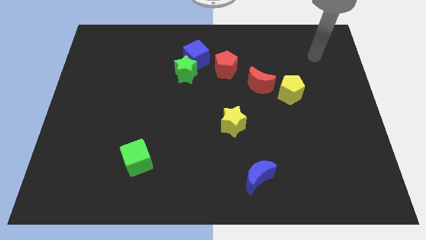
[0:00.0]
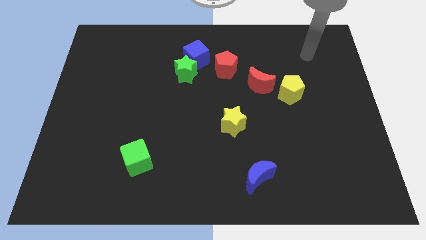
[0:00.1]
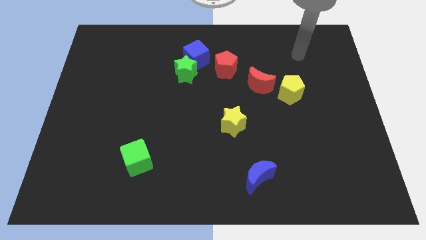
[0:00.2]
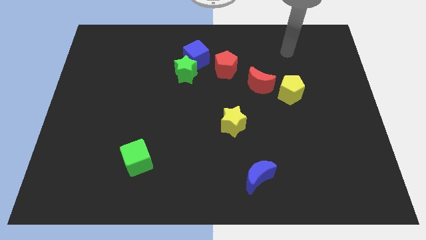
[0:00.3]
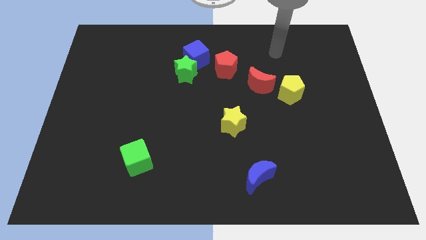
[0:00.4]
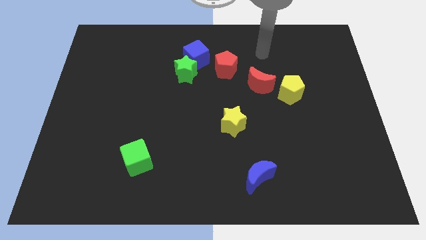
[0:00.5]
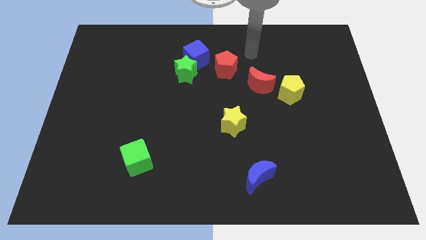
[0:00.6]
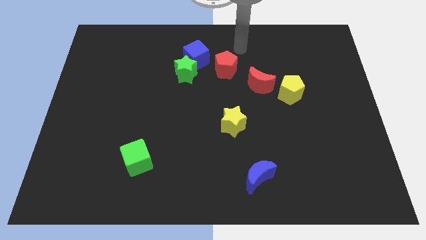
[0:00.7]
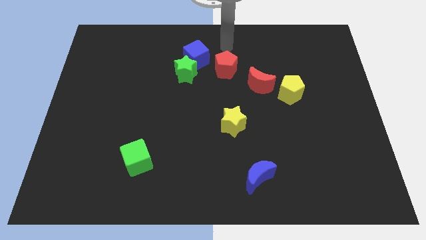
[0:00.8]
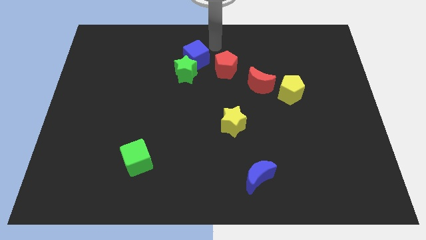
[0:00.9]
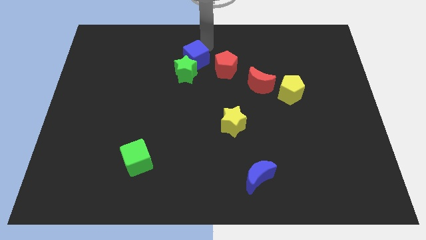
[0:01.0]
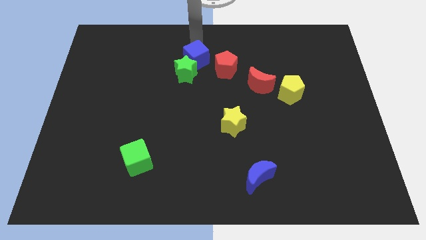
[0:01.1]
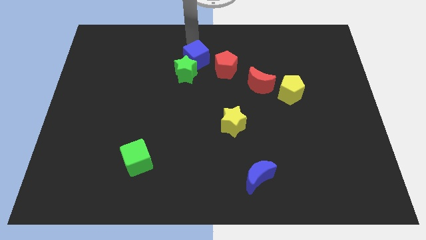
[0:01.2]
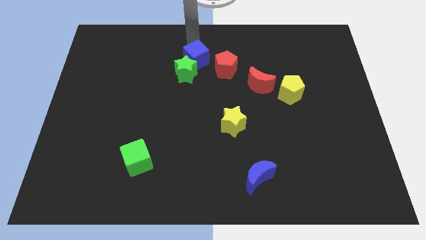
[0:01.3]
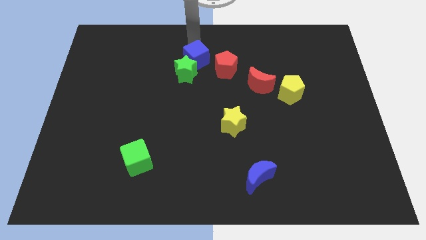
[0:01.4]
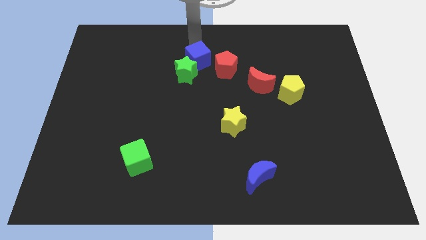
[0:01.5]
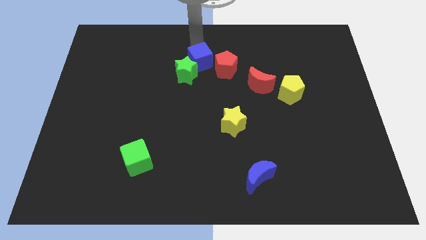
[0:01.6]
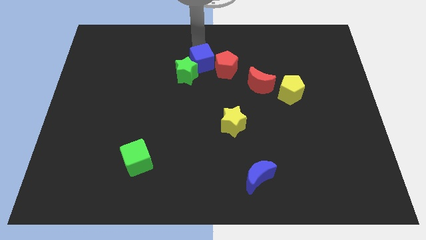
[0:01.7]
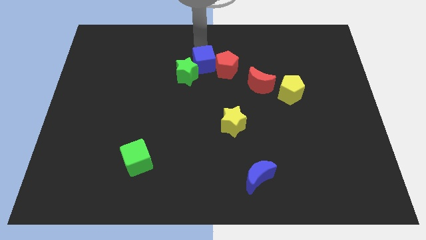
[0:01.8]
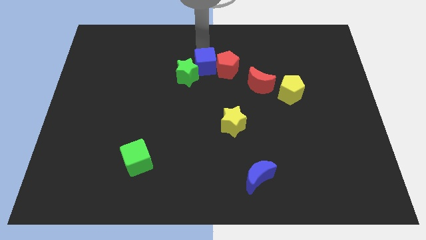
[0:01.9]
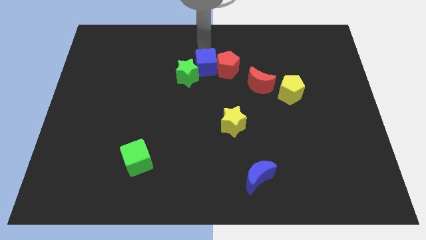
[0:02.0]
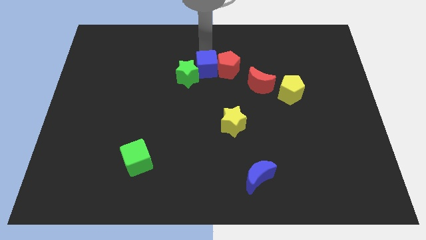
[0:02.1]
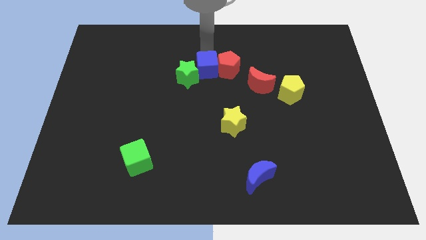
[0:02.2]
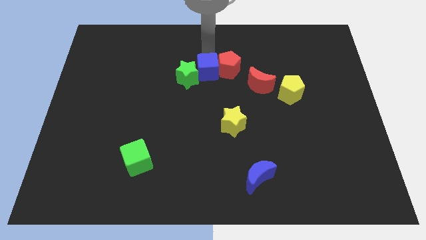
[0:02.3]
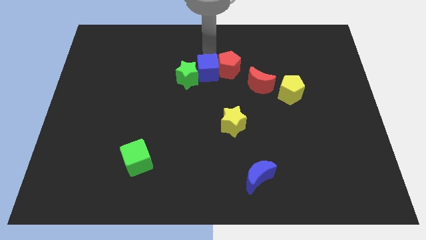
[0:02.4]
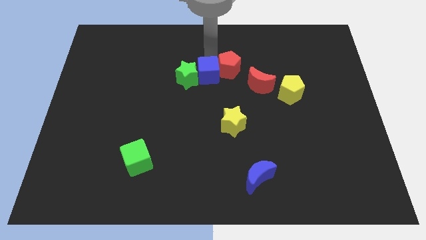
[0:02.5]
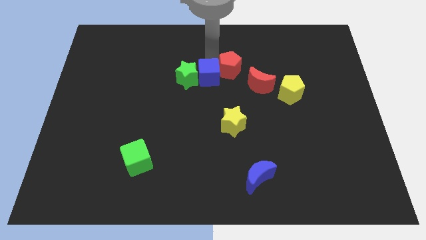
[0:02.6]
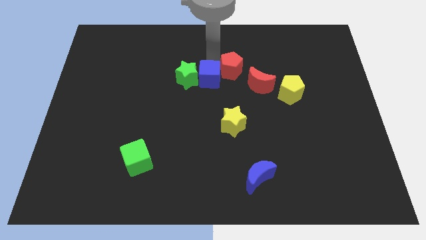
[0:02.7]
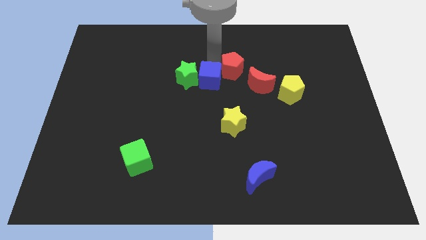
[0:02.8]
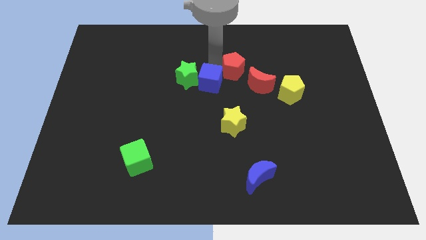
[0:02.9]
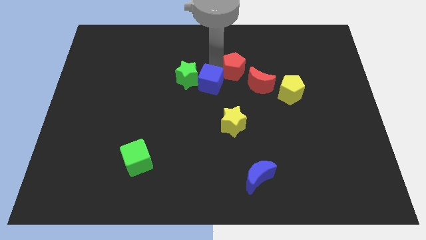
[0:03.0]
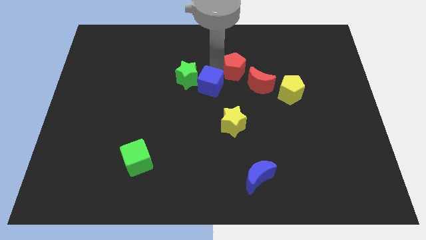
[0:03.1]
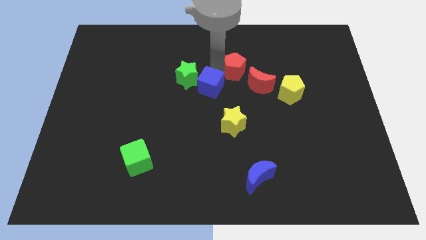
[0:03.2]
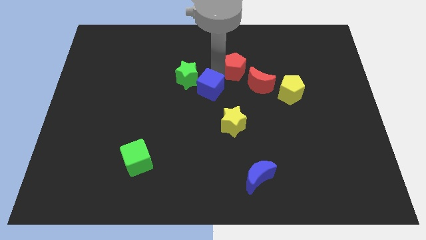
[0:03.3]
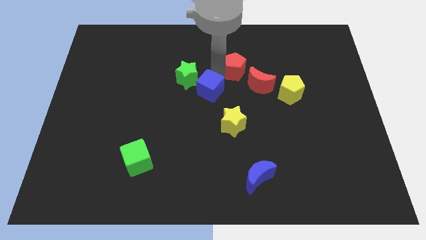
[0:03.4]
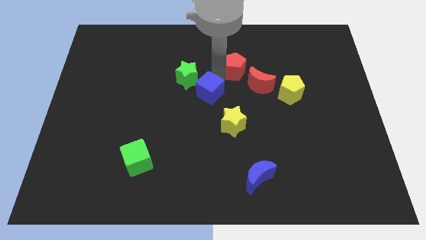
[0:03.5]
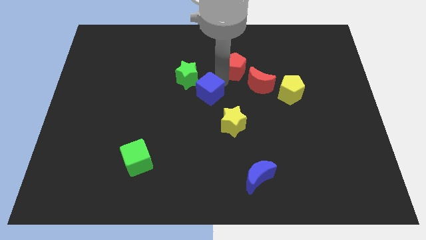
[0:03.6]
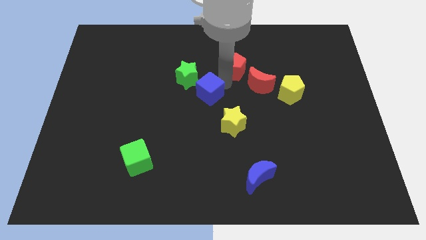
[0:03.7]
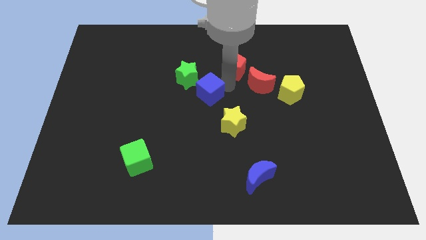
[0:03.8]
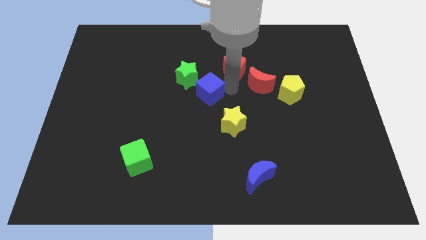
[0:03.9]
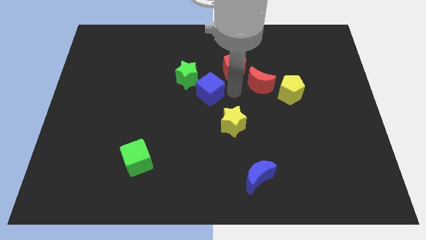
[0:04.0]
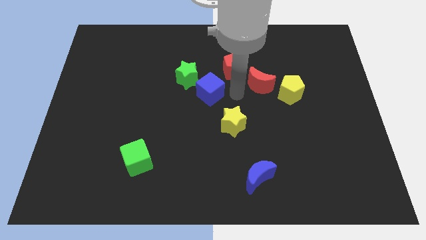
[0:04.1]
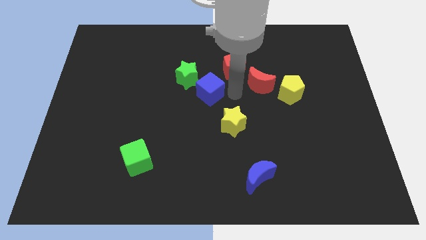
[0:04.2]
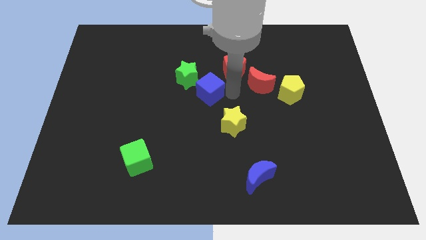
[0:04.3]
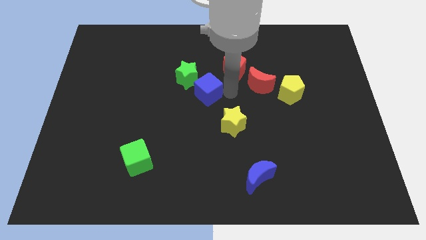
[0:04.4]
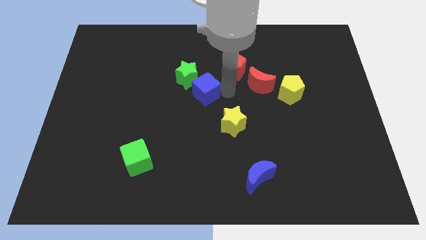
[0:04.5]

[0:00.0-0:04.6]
put the blue cube below the green star

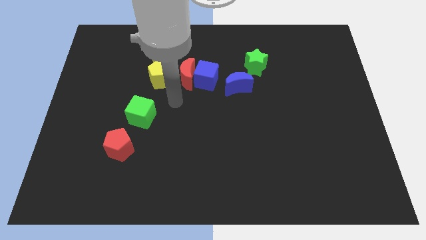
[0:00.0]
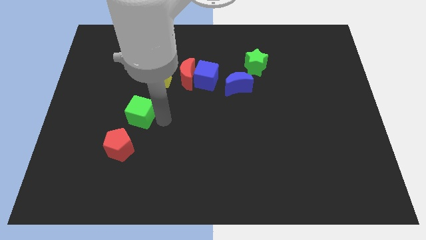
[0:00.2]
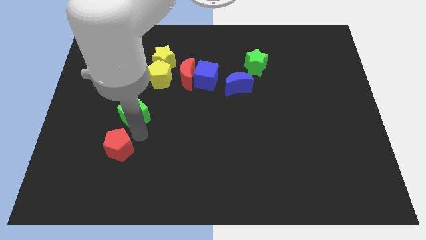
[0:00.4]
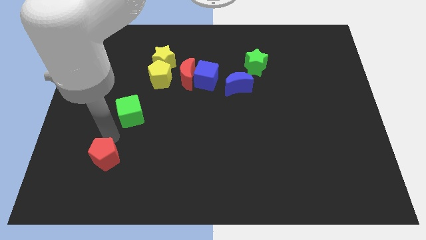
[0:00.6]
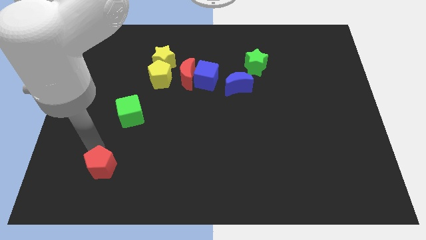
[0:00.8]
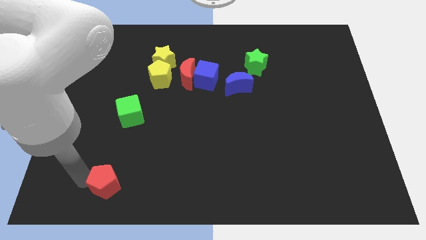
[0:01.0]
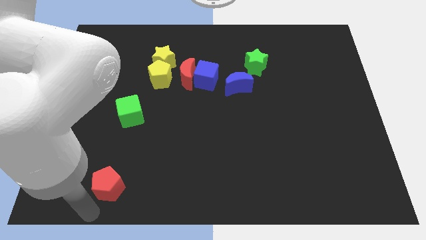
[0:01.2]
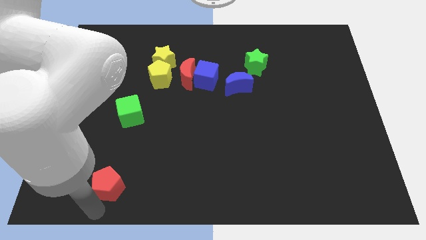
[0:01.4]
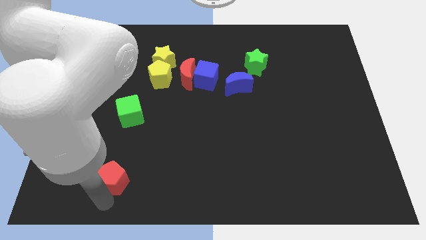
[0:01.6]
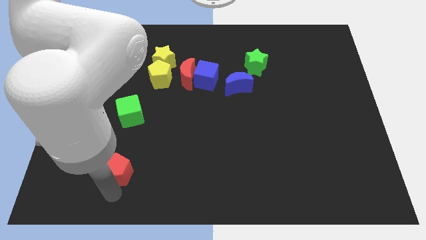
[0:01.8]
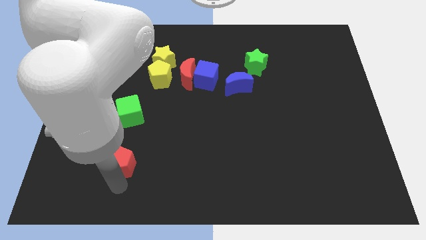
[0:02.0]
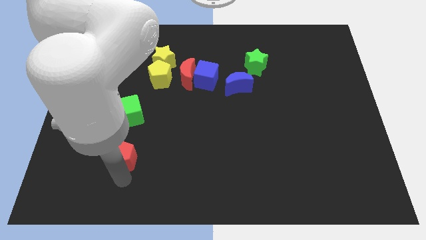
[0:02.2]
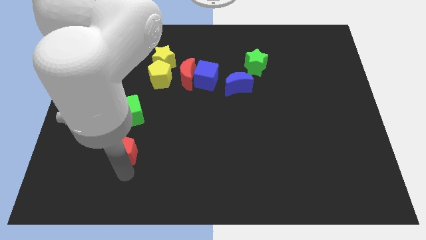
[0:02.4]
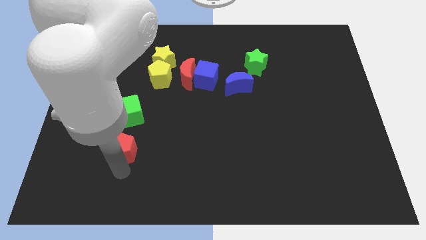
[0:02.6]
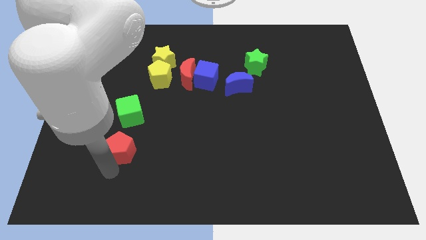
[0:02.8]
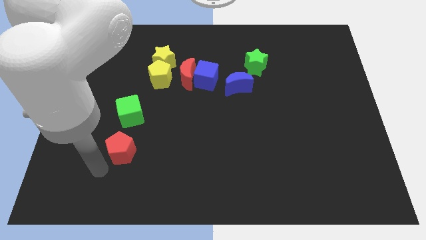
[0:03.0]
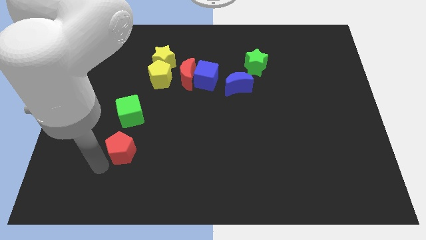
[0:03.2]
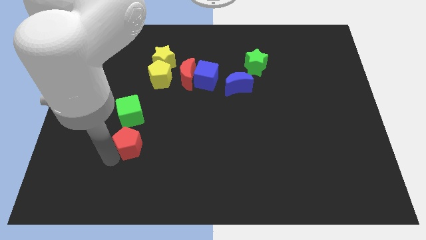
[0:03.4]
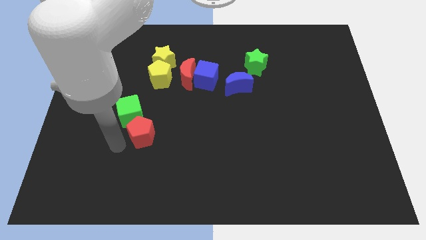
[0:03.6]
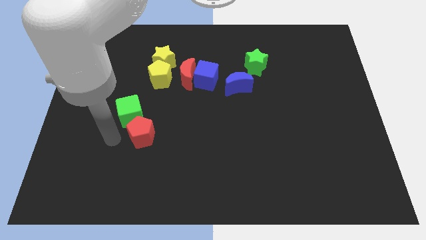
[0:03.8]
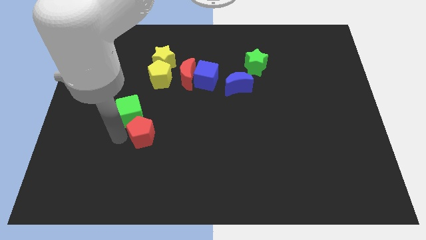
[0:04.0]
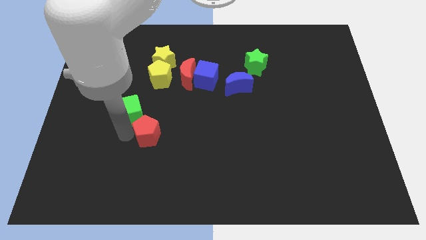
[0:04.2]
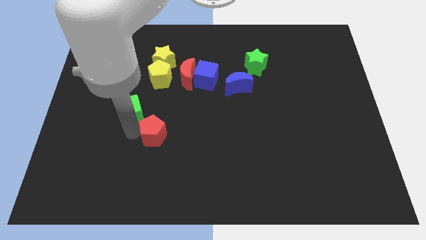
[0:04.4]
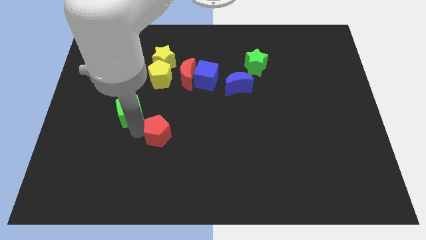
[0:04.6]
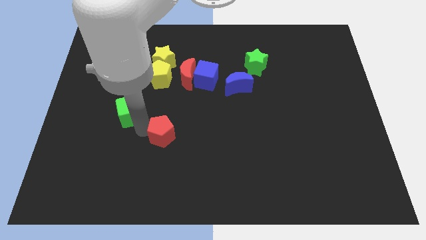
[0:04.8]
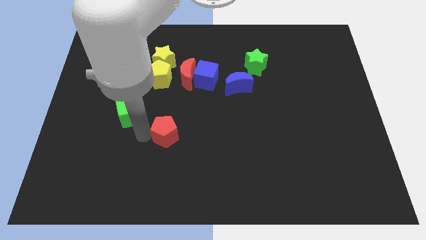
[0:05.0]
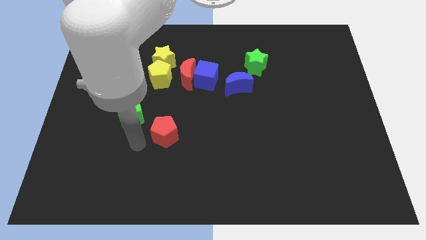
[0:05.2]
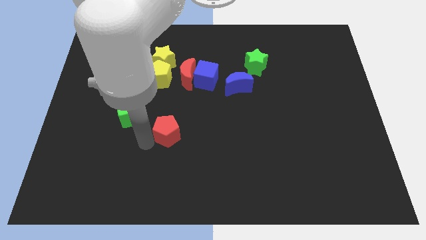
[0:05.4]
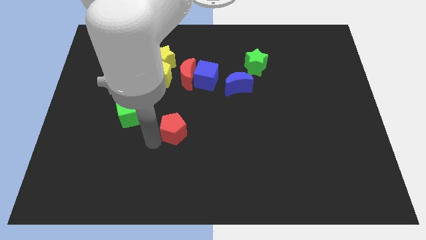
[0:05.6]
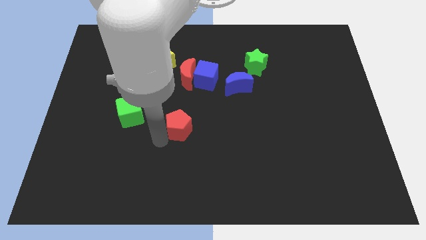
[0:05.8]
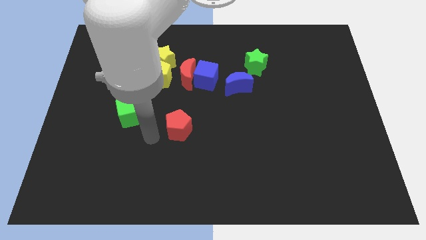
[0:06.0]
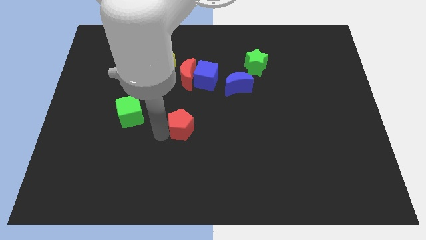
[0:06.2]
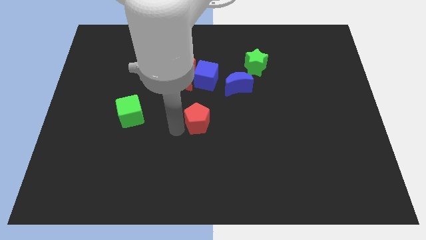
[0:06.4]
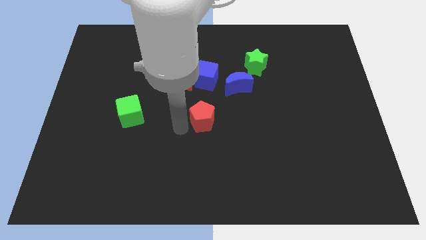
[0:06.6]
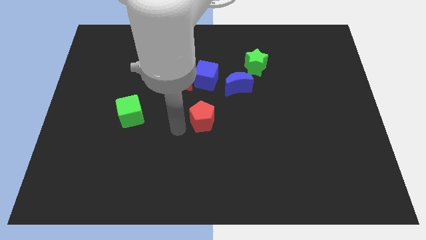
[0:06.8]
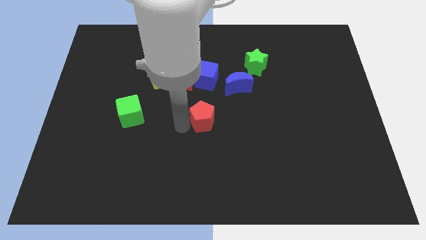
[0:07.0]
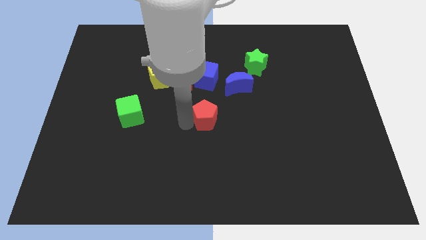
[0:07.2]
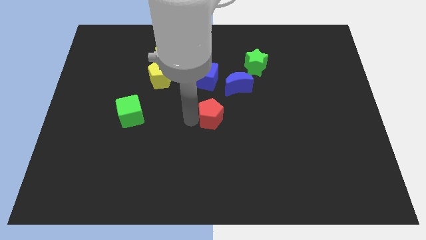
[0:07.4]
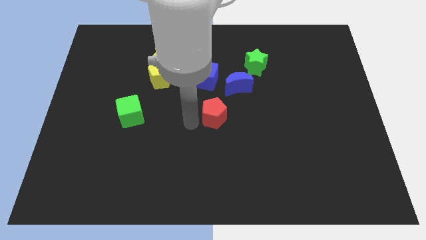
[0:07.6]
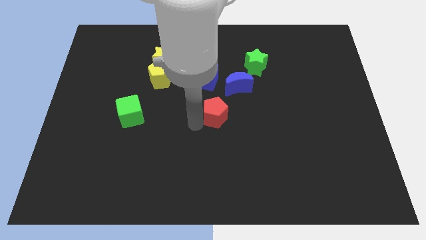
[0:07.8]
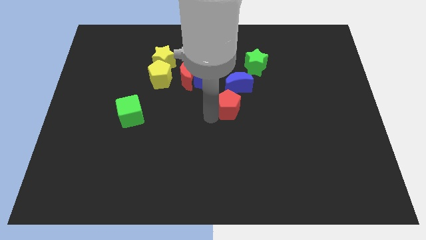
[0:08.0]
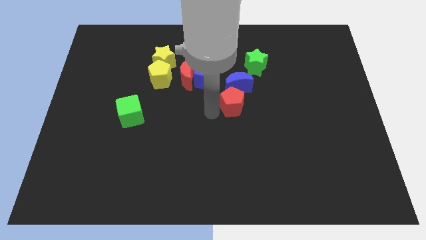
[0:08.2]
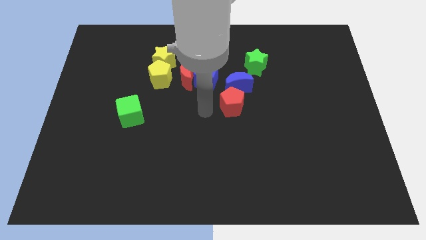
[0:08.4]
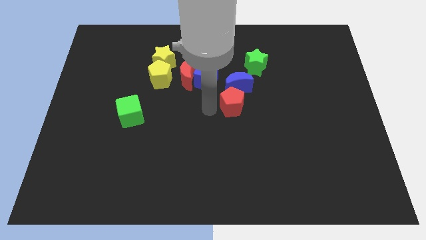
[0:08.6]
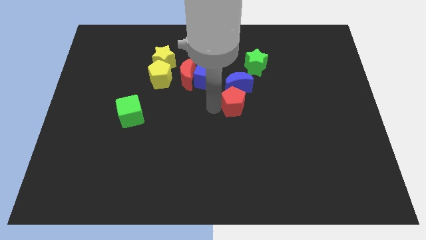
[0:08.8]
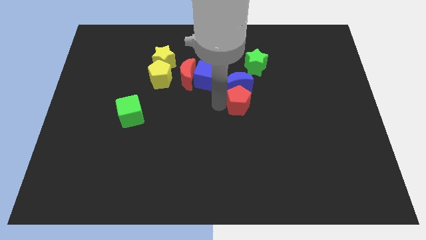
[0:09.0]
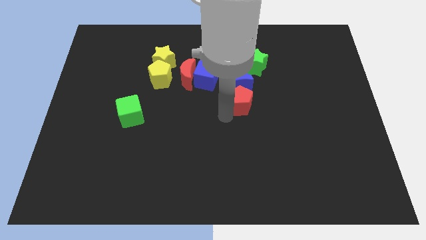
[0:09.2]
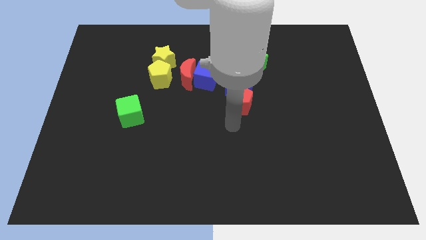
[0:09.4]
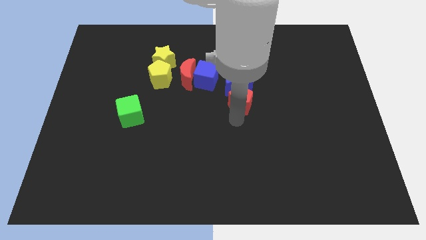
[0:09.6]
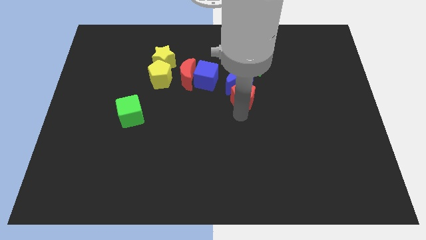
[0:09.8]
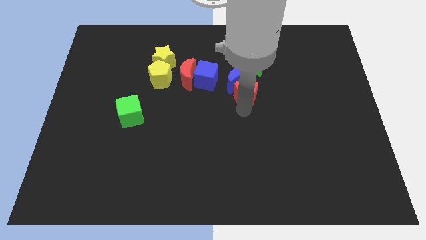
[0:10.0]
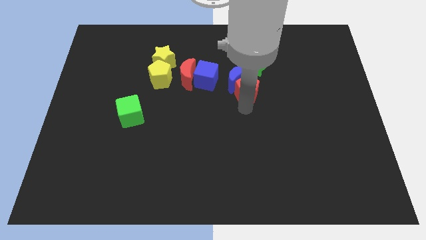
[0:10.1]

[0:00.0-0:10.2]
put the red pentagon to the right side of the blue cube
